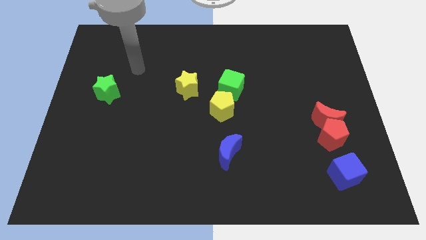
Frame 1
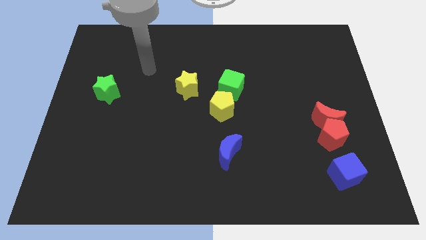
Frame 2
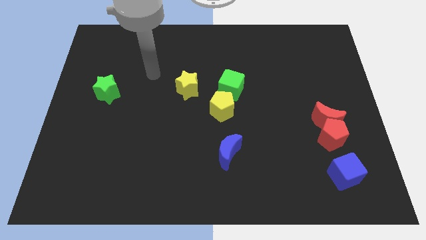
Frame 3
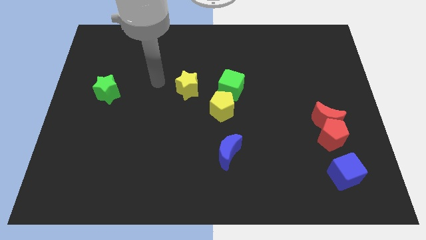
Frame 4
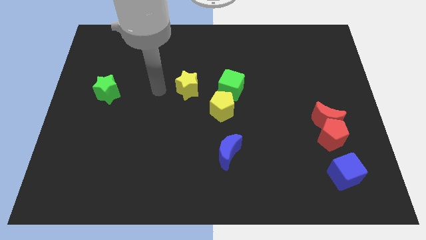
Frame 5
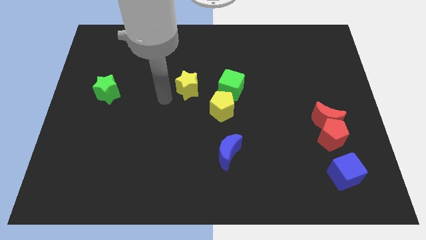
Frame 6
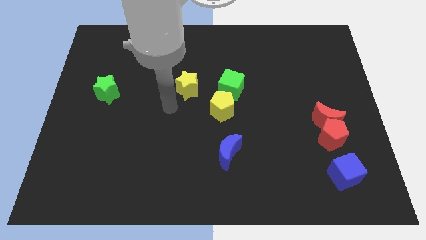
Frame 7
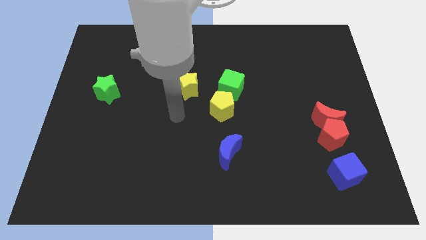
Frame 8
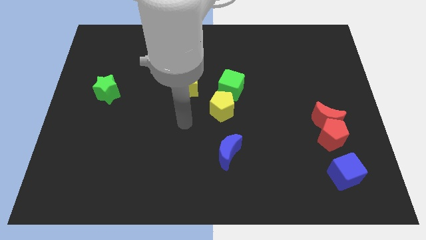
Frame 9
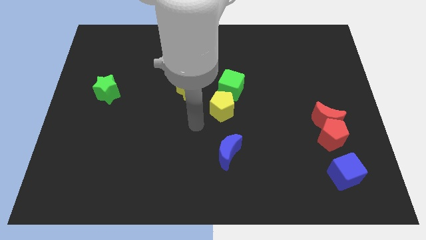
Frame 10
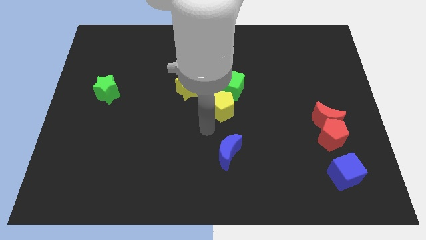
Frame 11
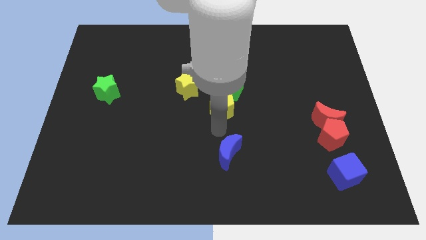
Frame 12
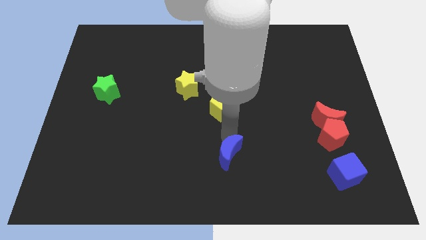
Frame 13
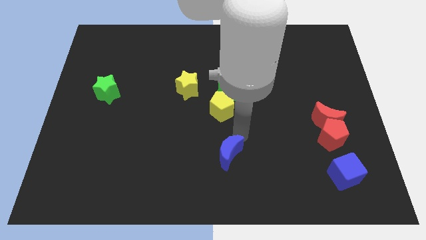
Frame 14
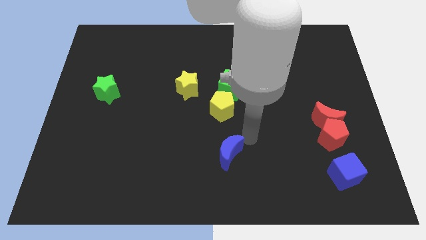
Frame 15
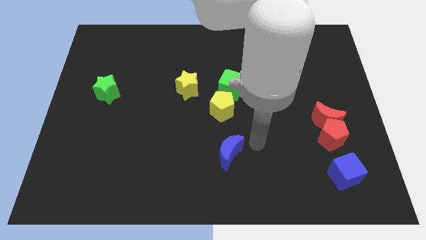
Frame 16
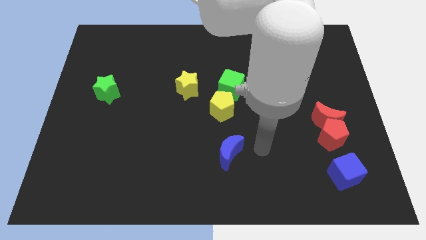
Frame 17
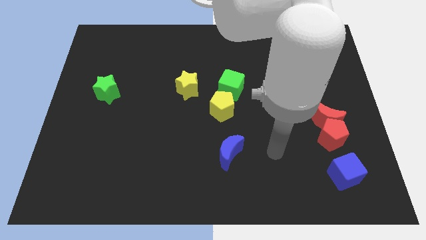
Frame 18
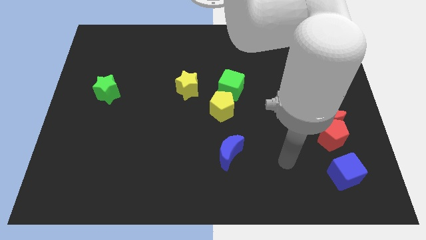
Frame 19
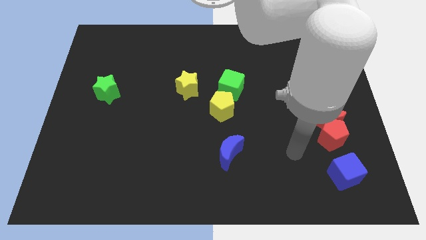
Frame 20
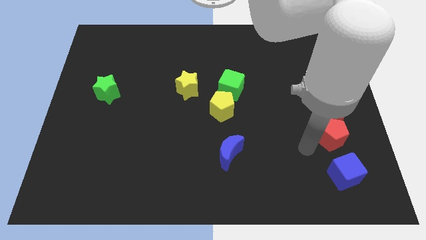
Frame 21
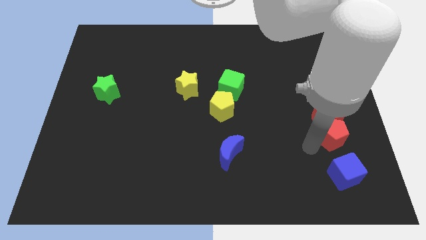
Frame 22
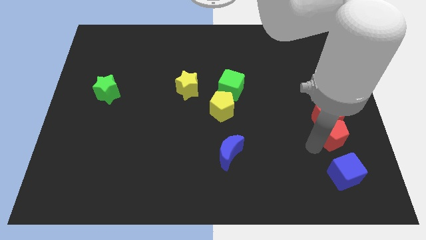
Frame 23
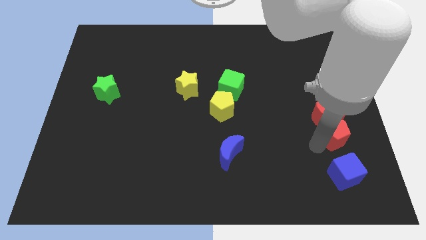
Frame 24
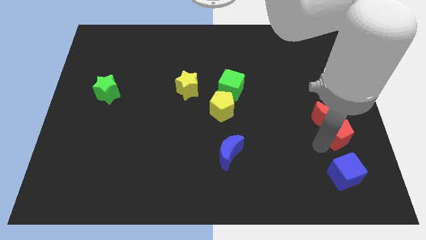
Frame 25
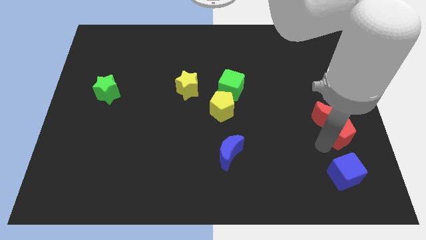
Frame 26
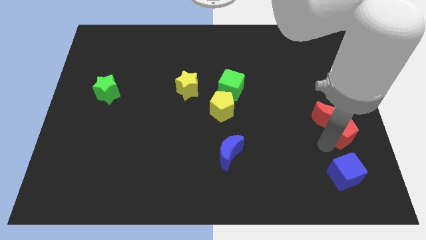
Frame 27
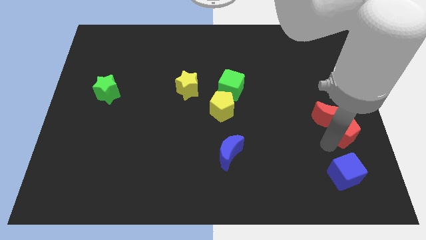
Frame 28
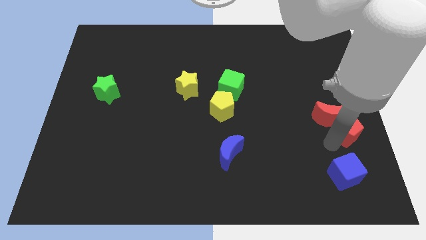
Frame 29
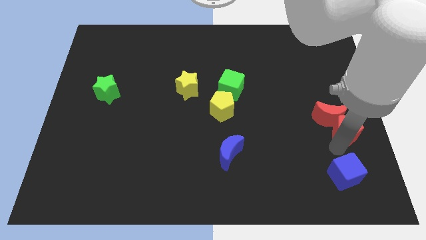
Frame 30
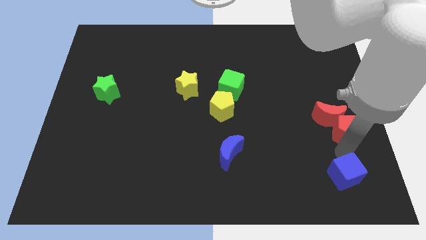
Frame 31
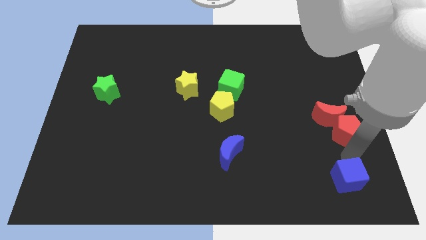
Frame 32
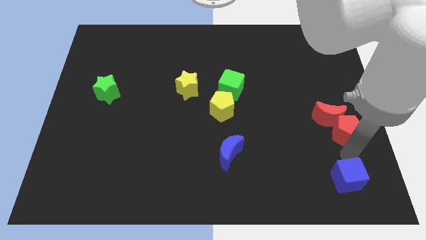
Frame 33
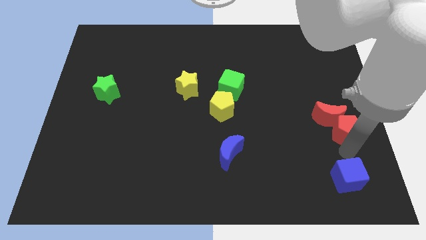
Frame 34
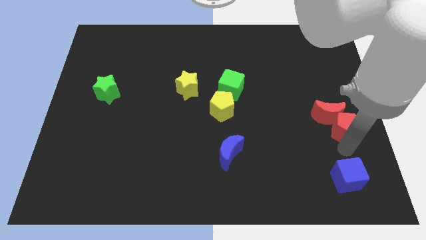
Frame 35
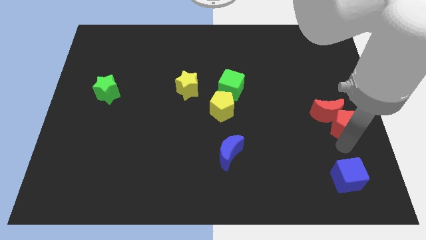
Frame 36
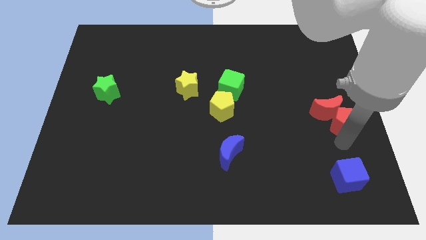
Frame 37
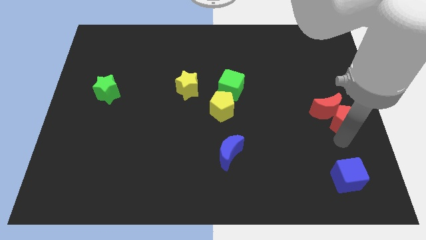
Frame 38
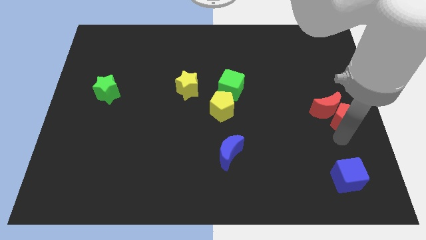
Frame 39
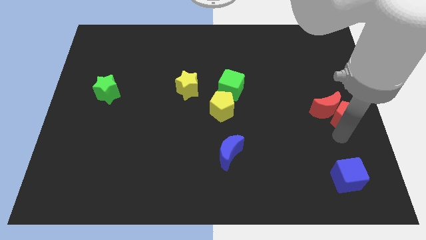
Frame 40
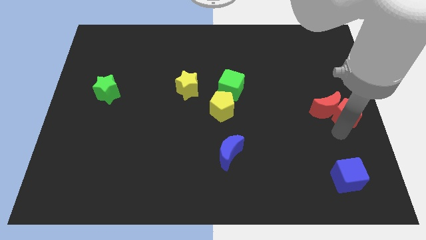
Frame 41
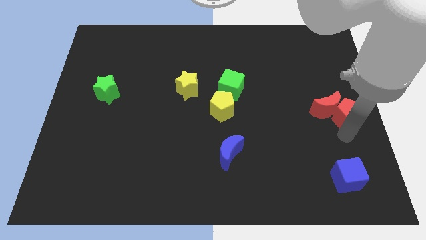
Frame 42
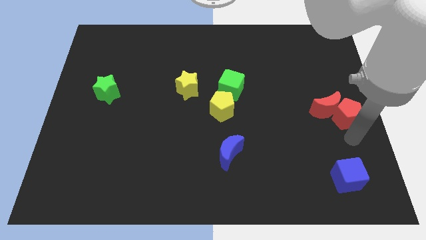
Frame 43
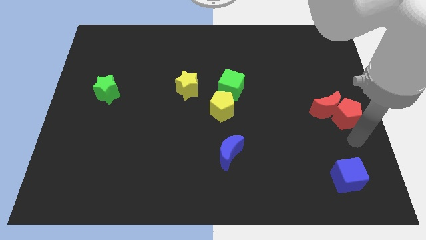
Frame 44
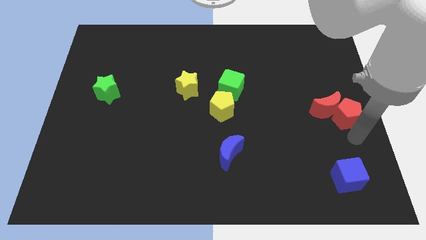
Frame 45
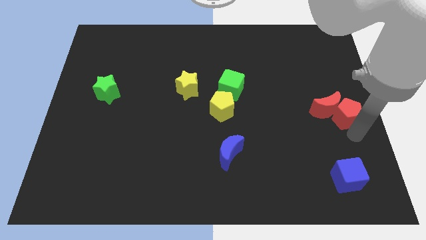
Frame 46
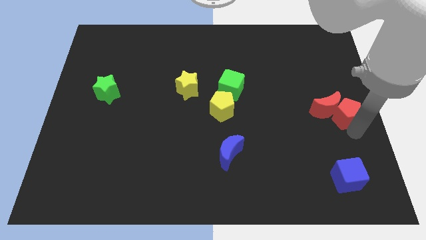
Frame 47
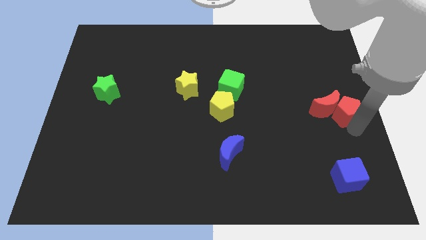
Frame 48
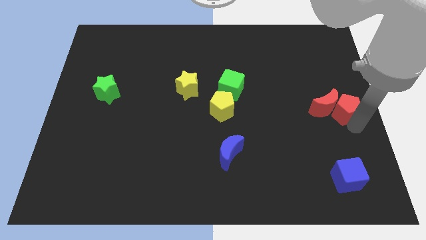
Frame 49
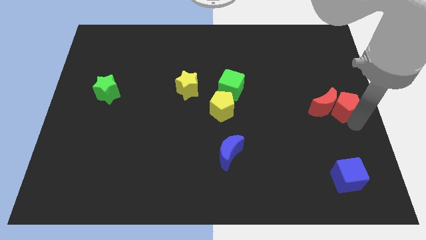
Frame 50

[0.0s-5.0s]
slide the red pentagon somewhat up

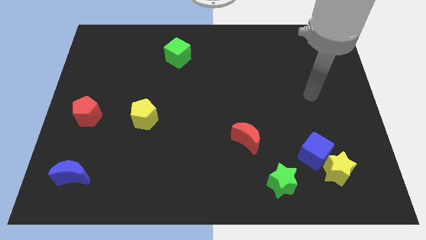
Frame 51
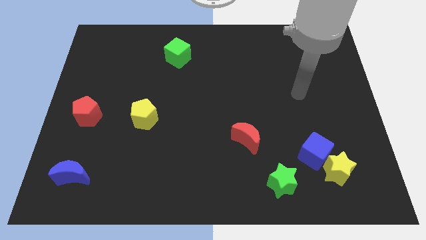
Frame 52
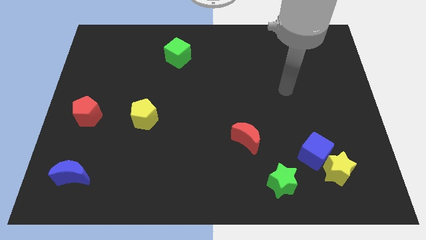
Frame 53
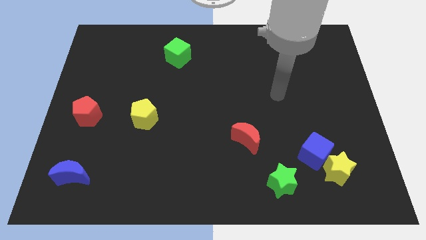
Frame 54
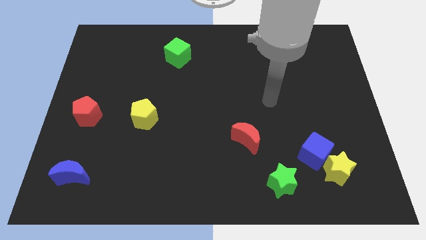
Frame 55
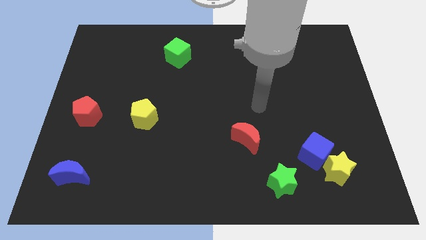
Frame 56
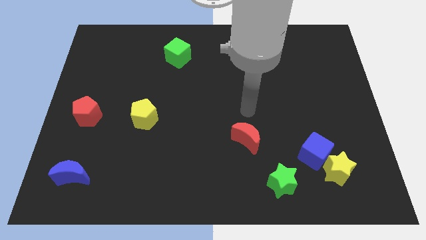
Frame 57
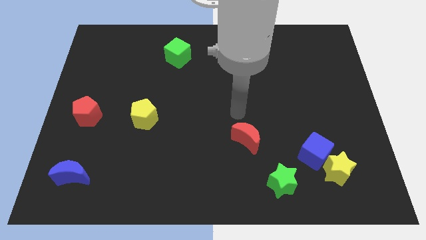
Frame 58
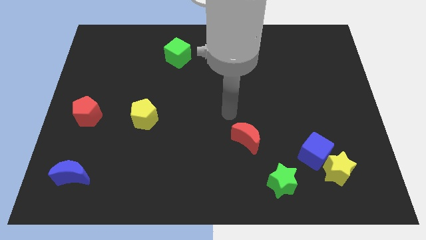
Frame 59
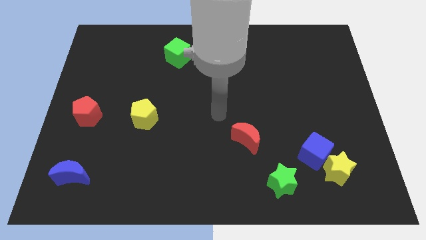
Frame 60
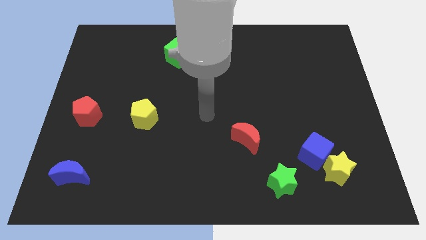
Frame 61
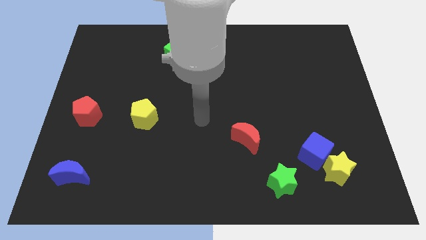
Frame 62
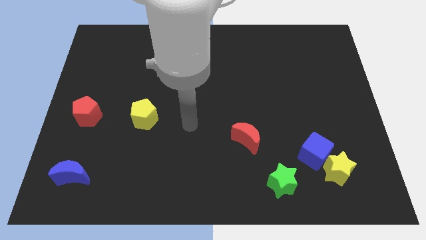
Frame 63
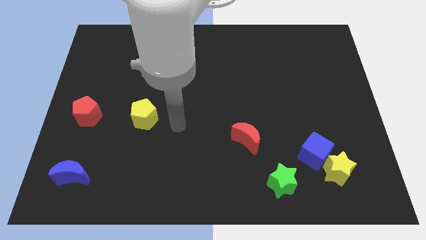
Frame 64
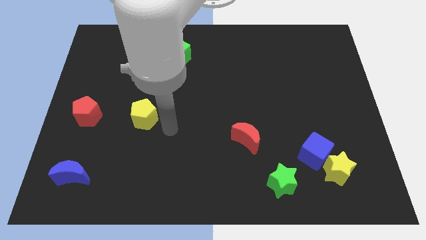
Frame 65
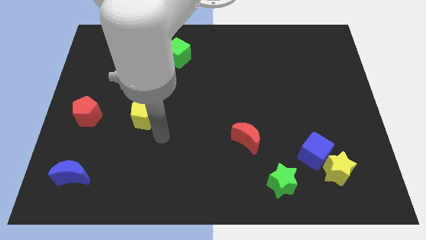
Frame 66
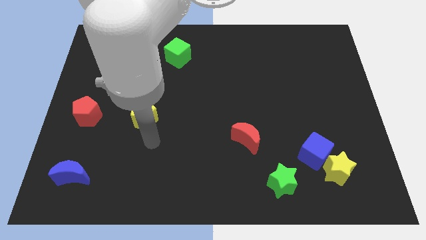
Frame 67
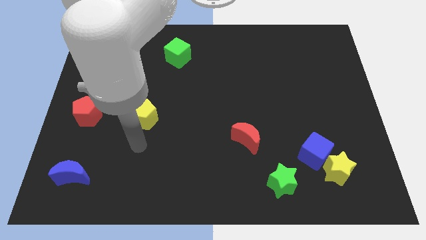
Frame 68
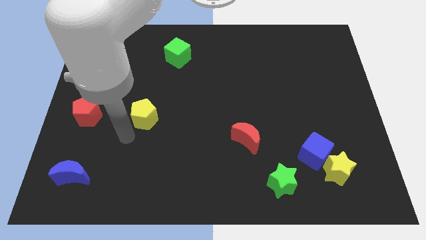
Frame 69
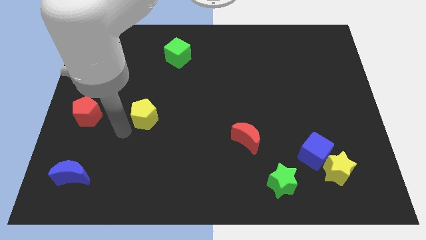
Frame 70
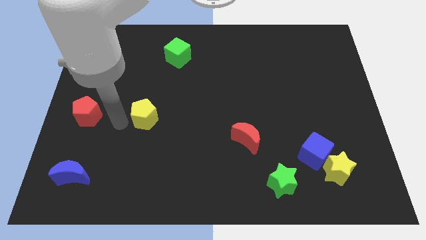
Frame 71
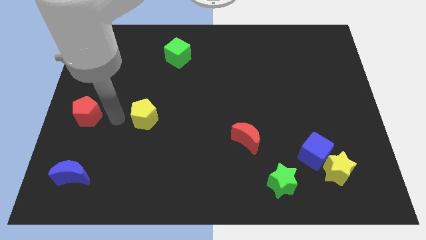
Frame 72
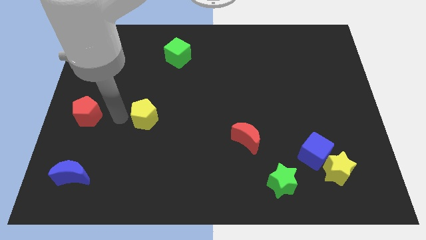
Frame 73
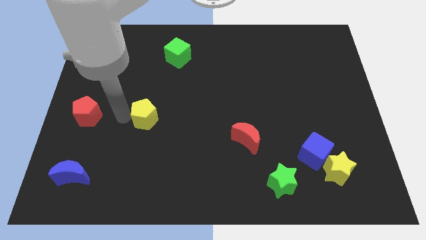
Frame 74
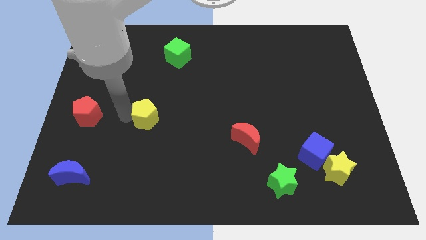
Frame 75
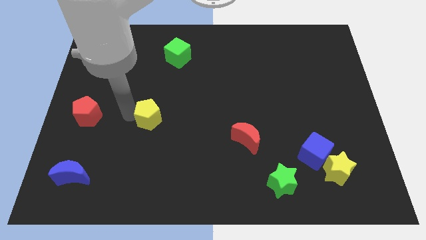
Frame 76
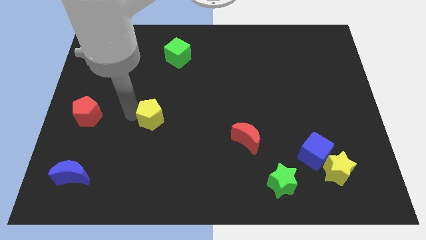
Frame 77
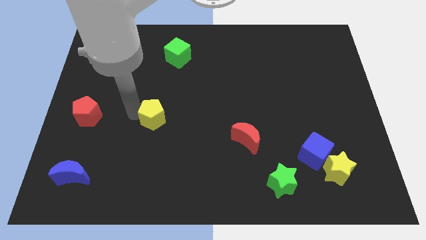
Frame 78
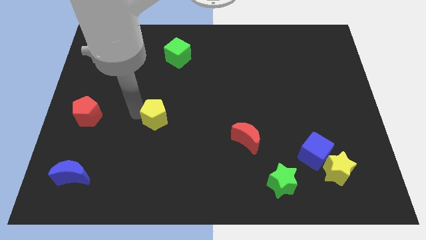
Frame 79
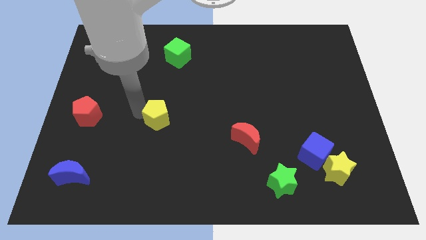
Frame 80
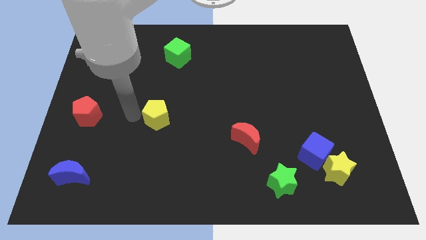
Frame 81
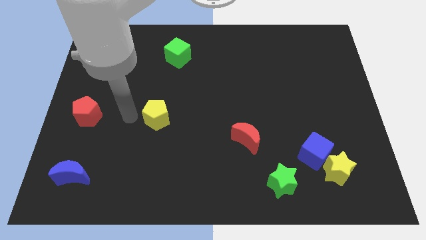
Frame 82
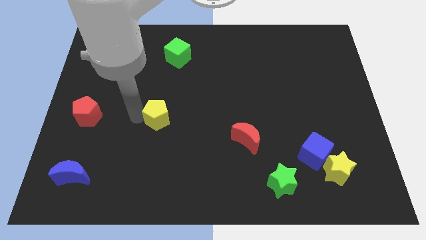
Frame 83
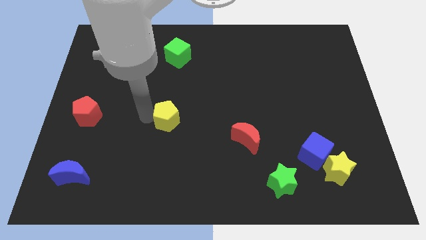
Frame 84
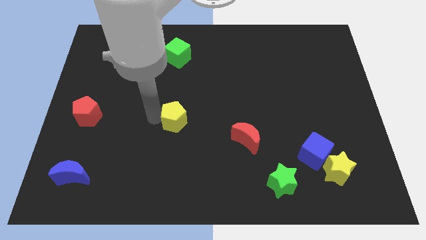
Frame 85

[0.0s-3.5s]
push the yellow pentagon right somewhat
